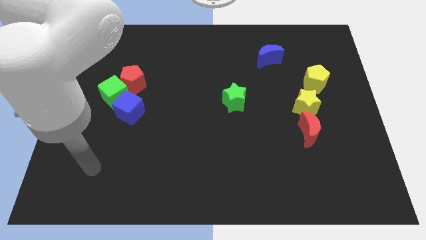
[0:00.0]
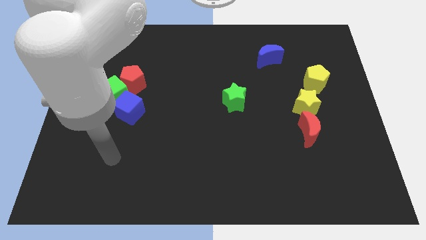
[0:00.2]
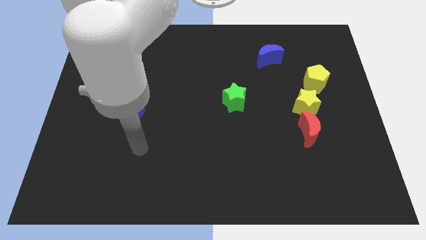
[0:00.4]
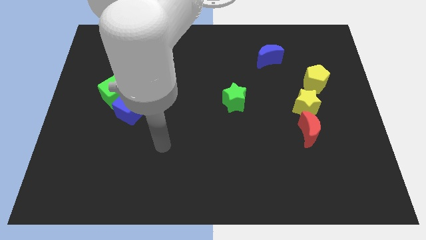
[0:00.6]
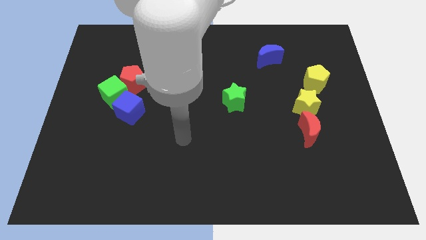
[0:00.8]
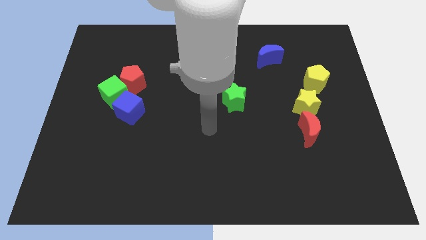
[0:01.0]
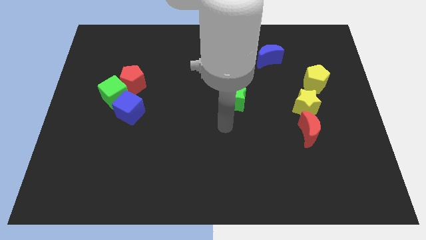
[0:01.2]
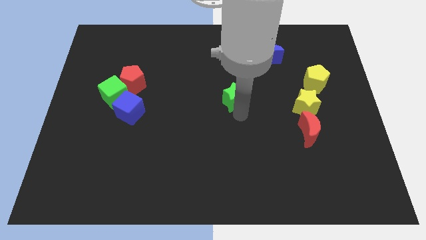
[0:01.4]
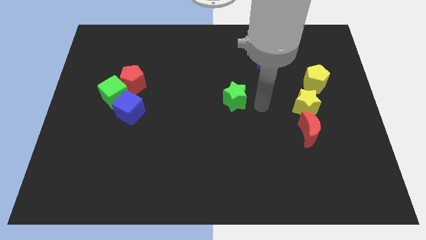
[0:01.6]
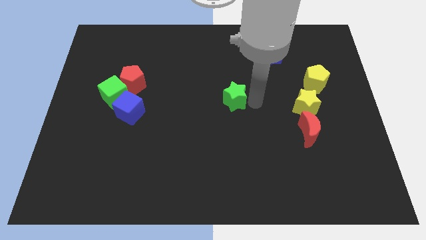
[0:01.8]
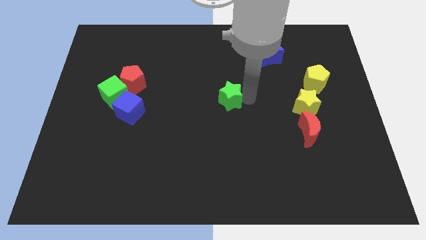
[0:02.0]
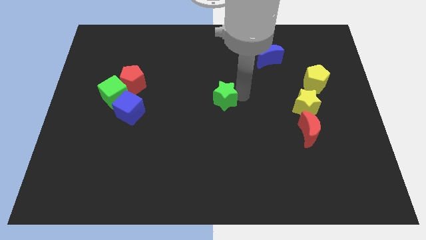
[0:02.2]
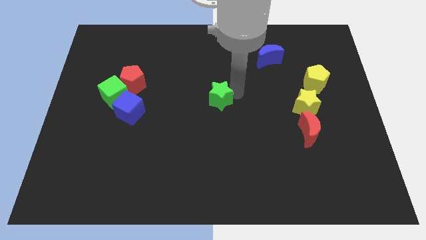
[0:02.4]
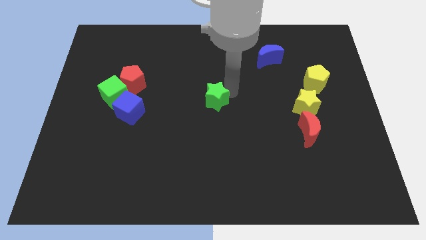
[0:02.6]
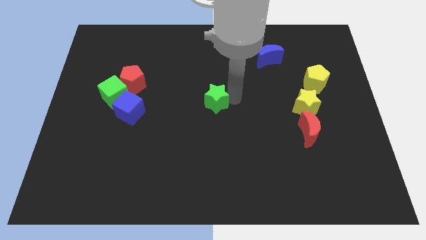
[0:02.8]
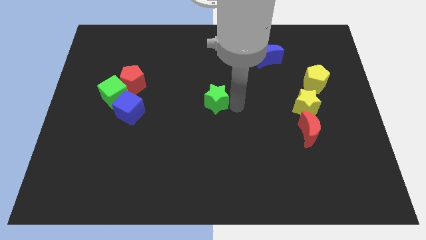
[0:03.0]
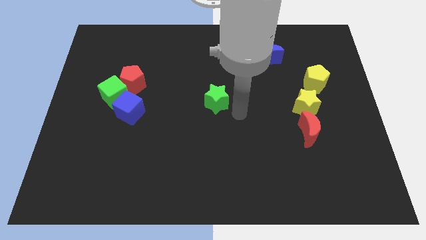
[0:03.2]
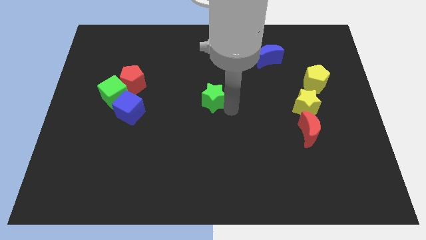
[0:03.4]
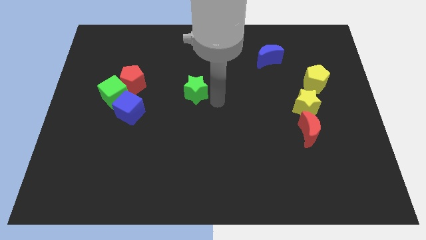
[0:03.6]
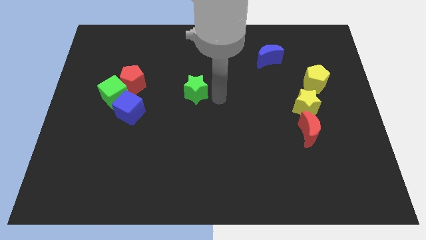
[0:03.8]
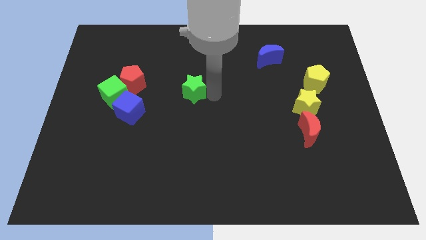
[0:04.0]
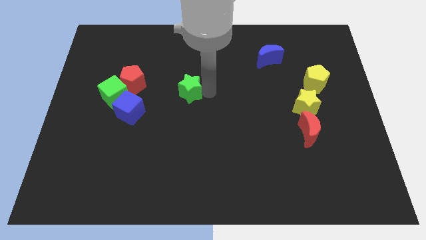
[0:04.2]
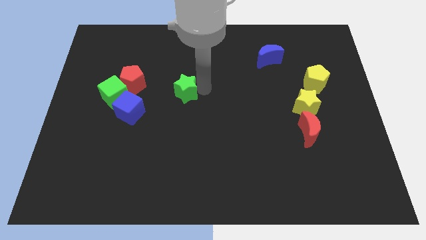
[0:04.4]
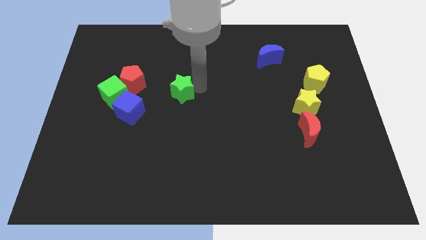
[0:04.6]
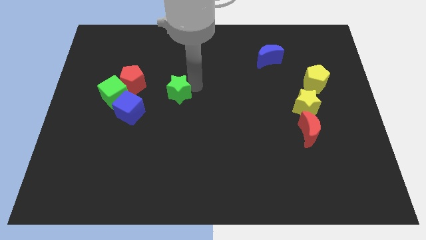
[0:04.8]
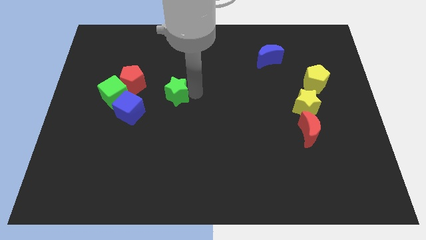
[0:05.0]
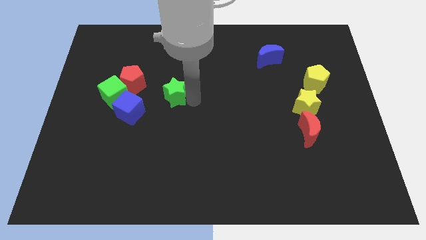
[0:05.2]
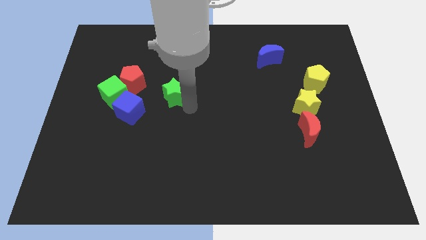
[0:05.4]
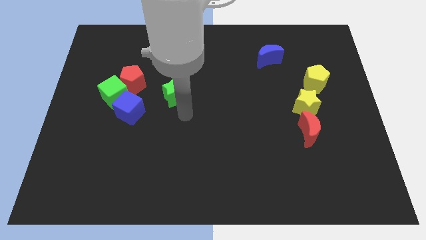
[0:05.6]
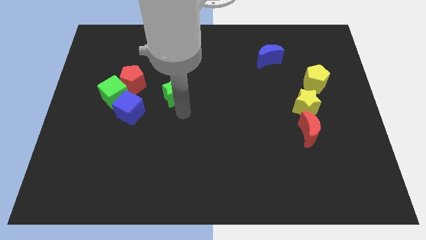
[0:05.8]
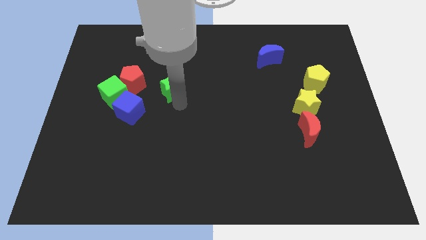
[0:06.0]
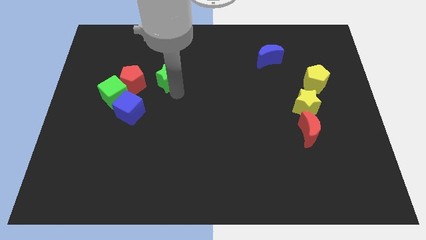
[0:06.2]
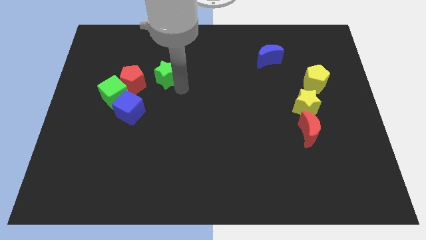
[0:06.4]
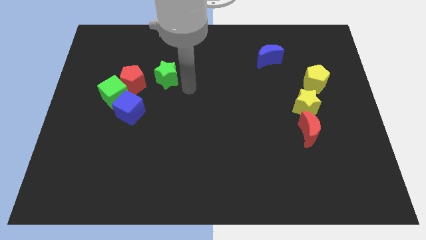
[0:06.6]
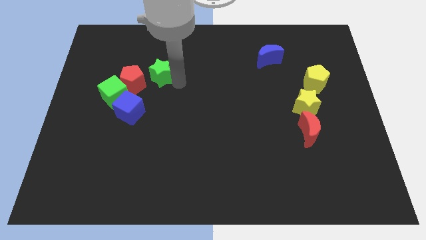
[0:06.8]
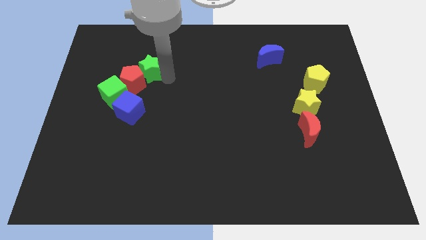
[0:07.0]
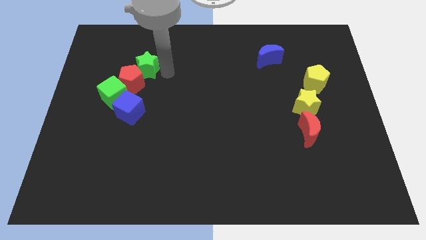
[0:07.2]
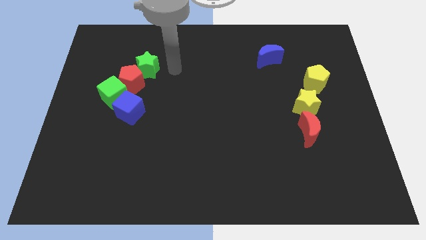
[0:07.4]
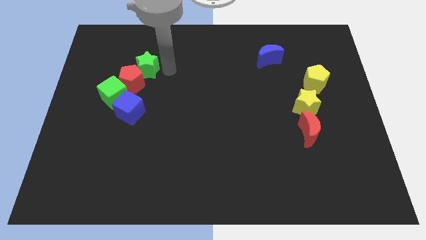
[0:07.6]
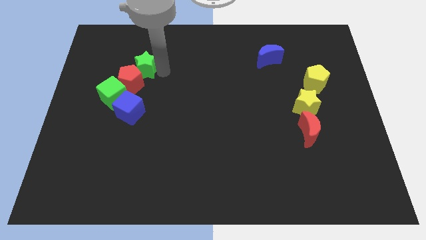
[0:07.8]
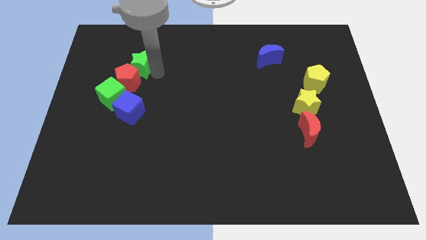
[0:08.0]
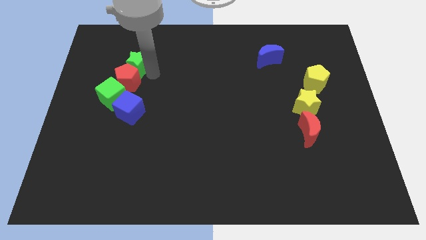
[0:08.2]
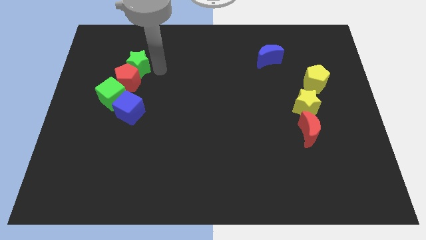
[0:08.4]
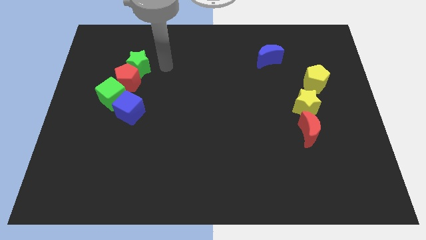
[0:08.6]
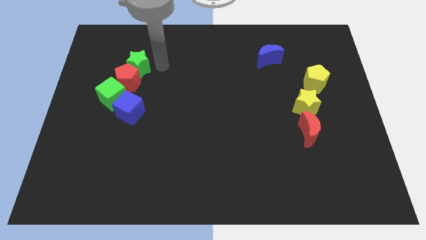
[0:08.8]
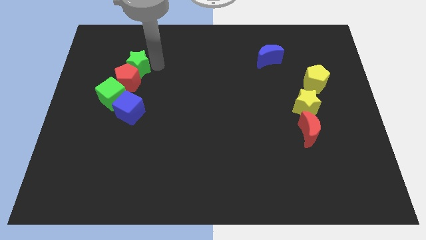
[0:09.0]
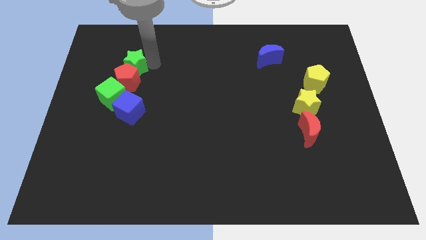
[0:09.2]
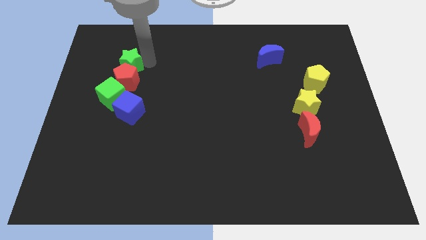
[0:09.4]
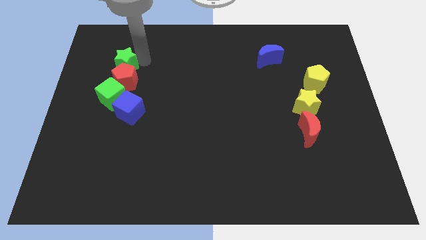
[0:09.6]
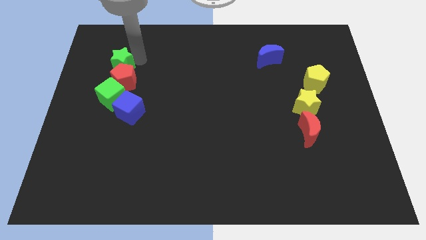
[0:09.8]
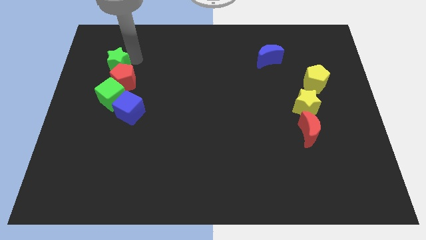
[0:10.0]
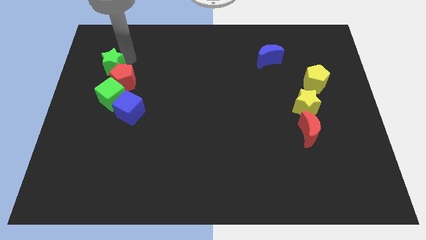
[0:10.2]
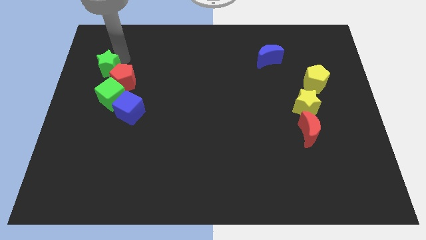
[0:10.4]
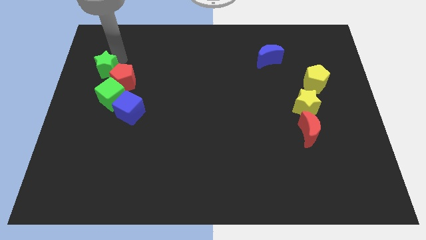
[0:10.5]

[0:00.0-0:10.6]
push the green star to the top left side of the green cube

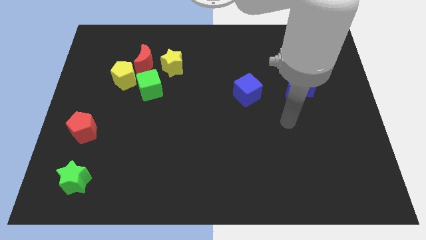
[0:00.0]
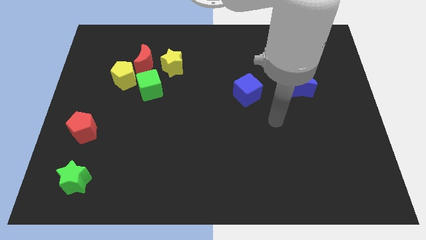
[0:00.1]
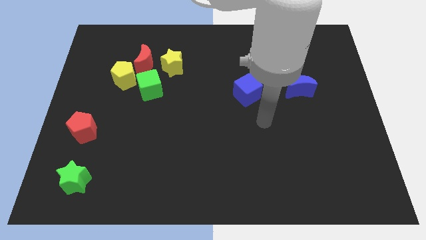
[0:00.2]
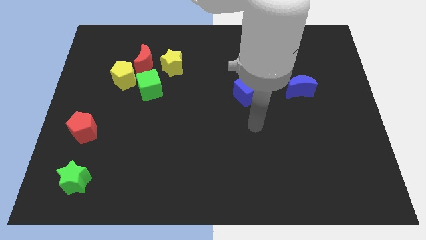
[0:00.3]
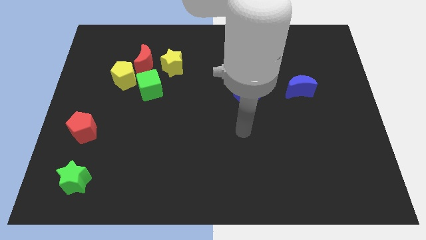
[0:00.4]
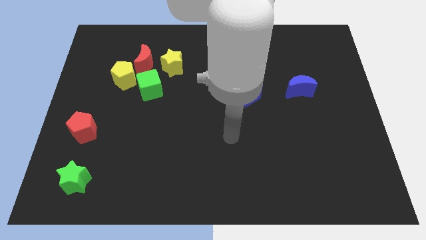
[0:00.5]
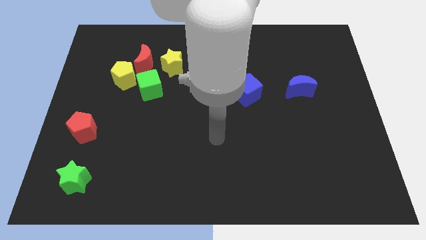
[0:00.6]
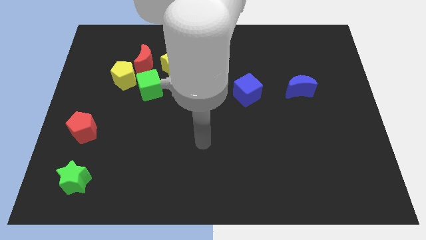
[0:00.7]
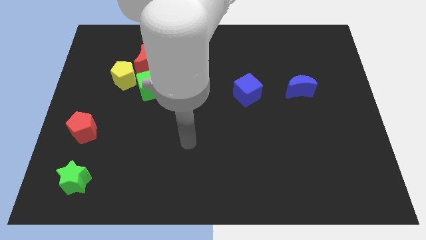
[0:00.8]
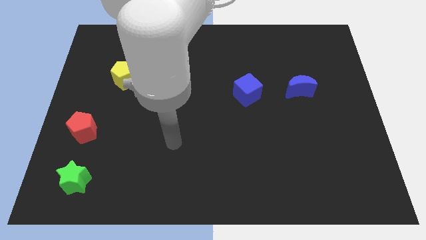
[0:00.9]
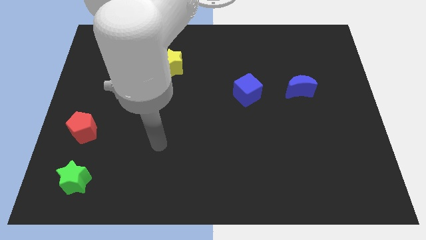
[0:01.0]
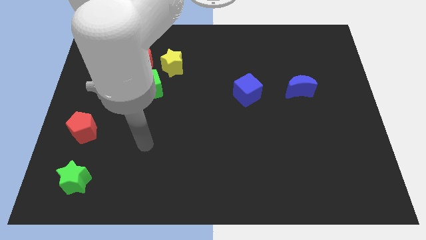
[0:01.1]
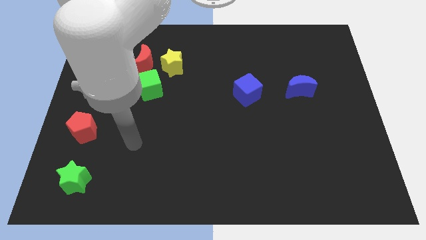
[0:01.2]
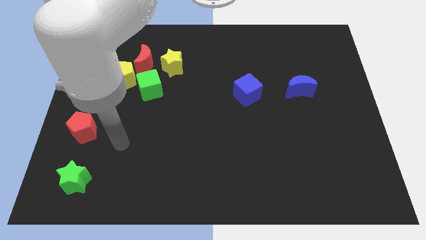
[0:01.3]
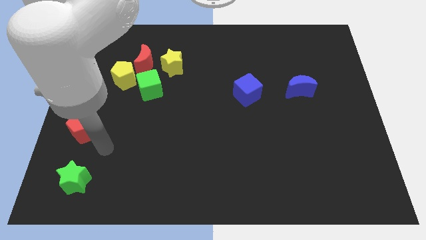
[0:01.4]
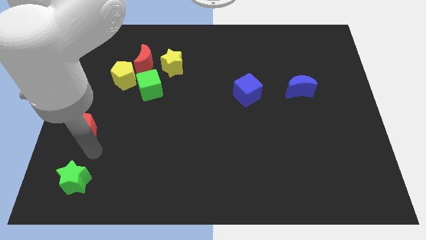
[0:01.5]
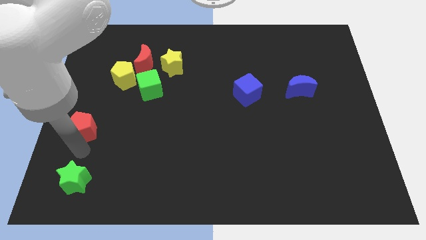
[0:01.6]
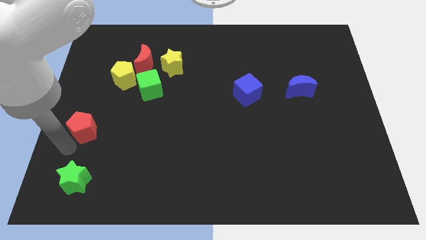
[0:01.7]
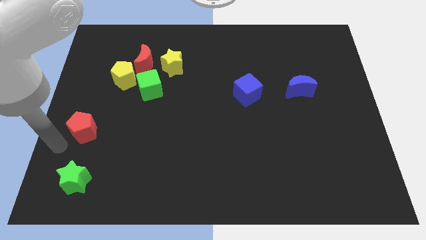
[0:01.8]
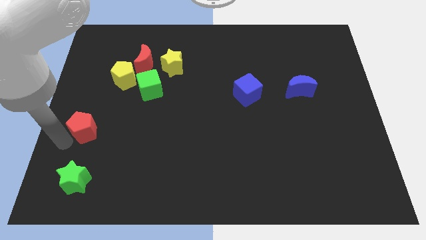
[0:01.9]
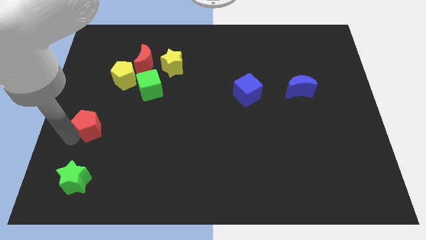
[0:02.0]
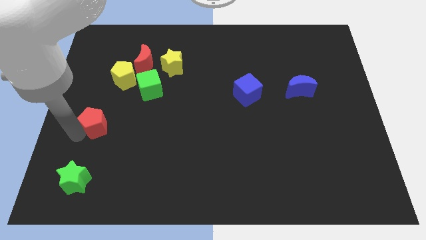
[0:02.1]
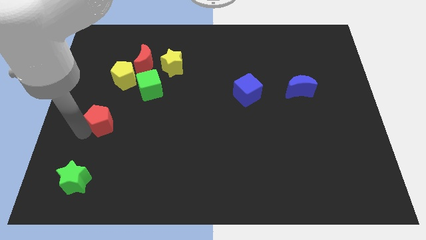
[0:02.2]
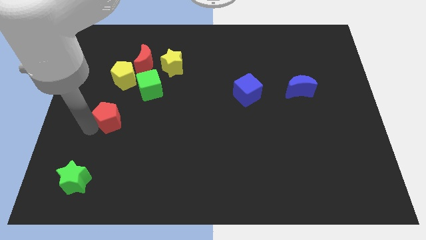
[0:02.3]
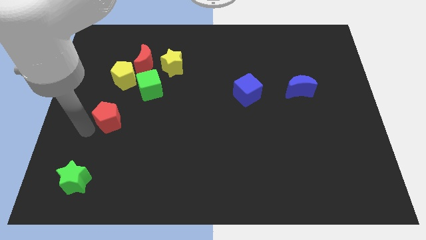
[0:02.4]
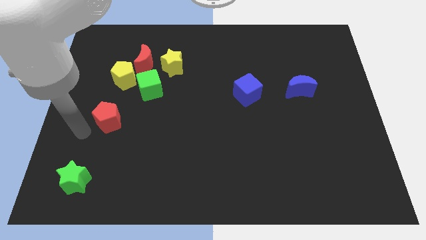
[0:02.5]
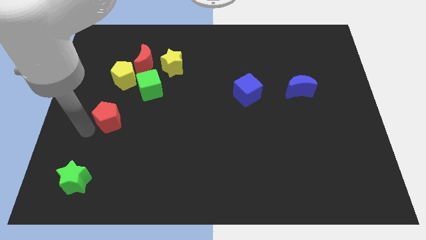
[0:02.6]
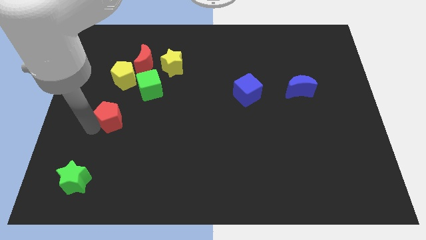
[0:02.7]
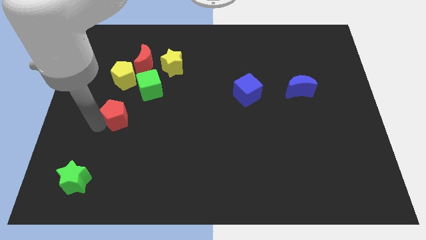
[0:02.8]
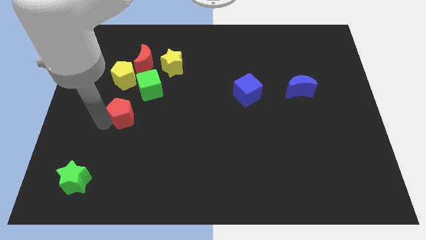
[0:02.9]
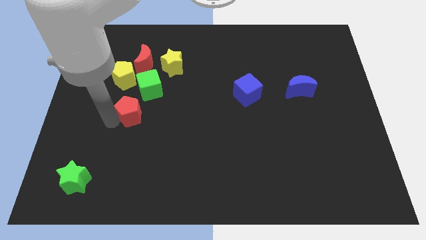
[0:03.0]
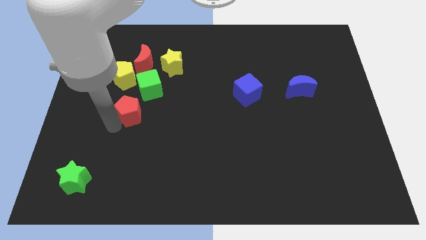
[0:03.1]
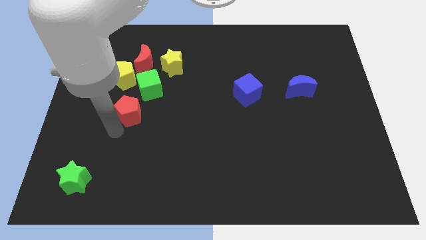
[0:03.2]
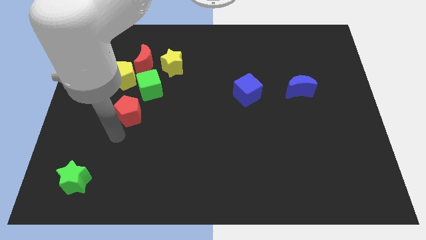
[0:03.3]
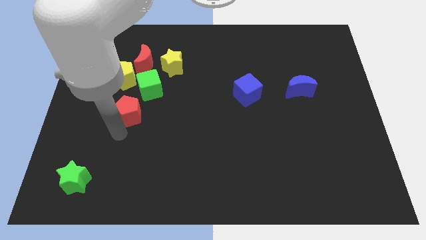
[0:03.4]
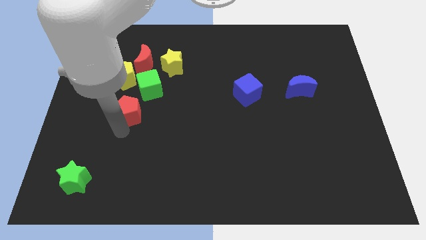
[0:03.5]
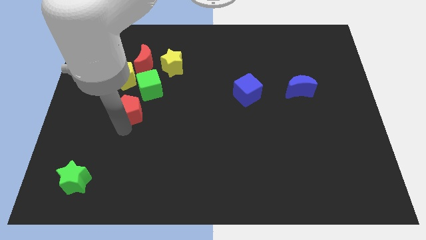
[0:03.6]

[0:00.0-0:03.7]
move the red pentagon below the red moon
